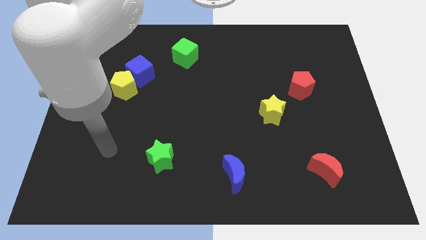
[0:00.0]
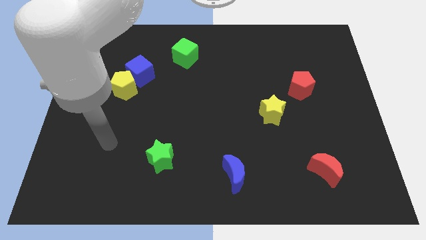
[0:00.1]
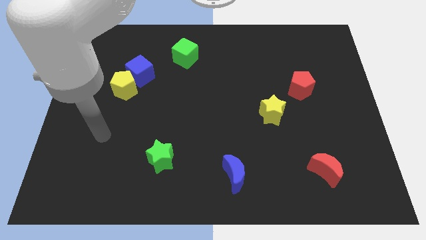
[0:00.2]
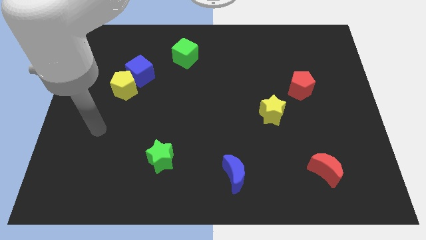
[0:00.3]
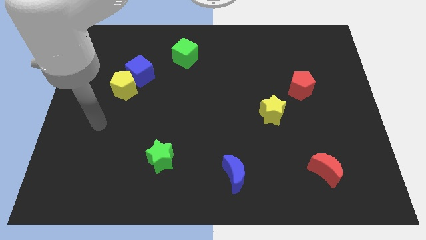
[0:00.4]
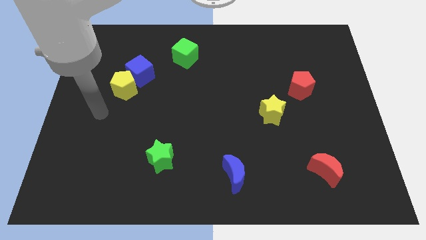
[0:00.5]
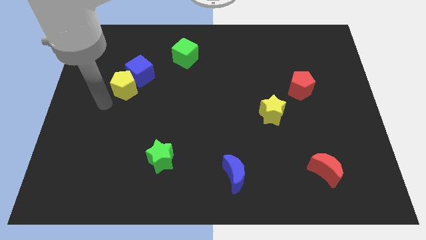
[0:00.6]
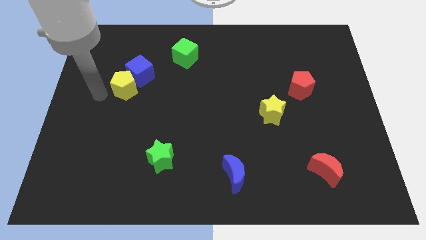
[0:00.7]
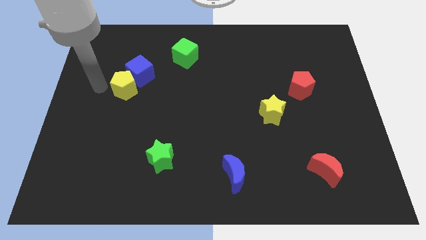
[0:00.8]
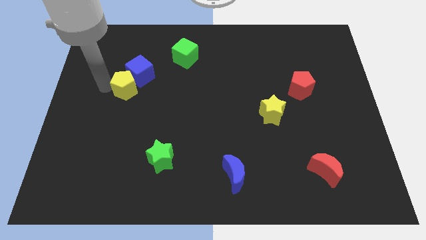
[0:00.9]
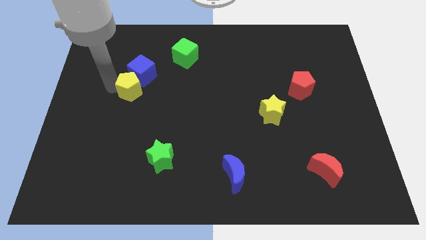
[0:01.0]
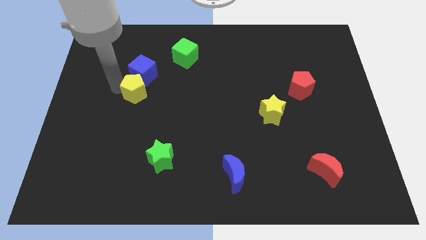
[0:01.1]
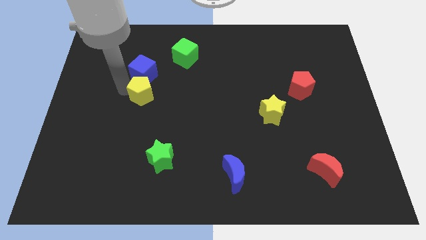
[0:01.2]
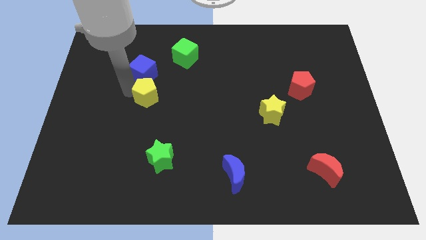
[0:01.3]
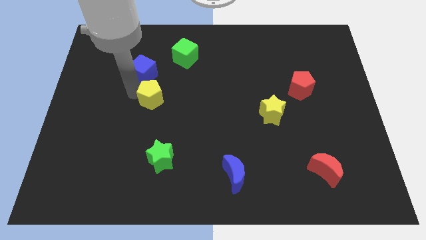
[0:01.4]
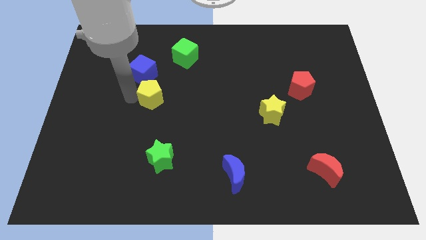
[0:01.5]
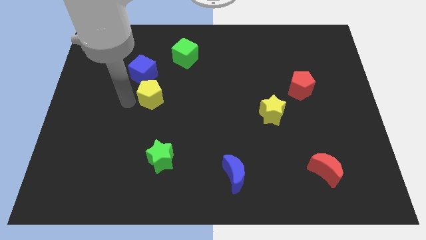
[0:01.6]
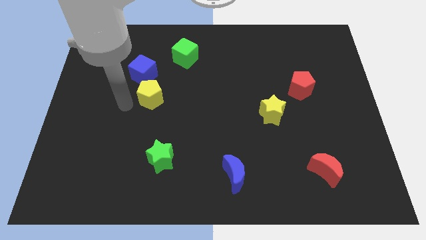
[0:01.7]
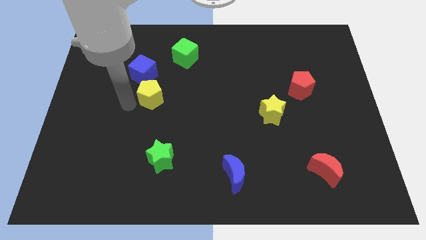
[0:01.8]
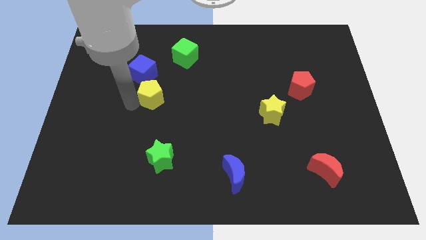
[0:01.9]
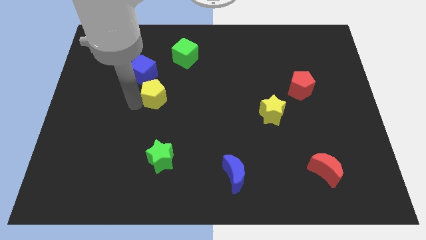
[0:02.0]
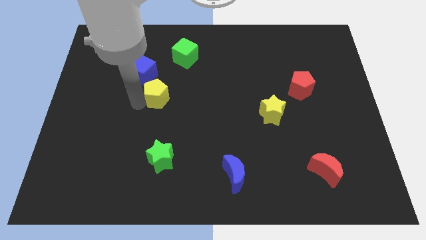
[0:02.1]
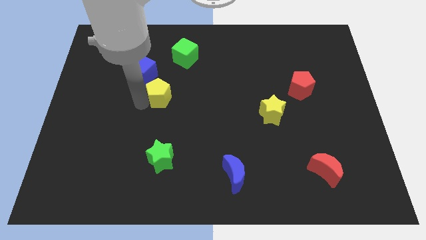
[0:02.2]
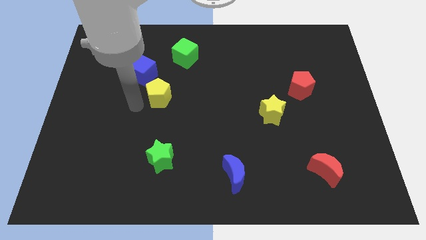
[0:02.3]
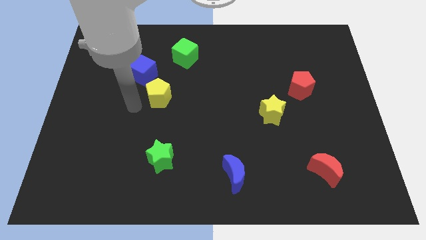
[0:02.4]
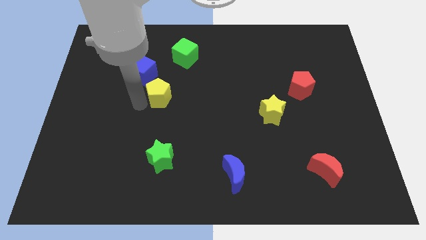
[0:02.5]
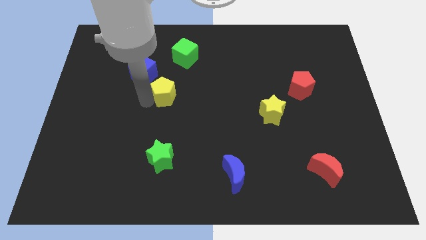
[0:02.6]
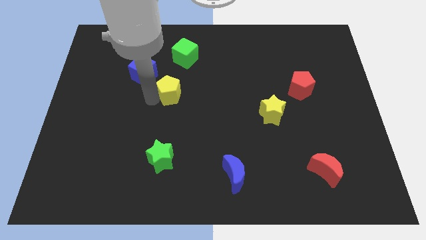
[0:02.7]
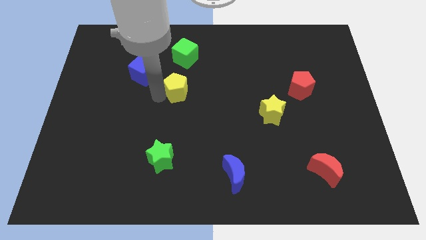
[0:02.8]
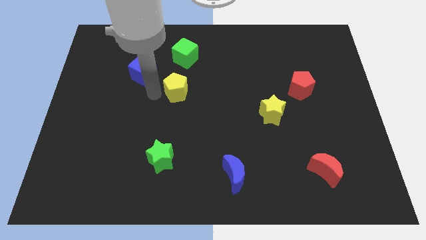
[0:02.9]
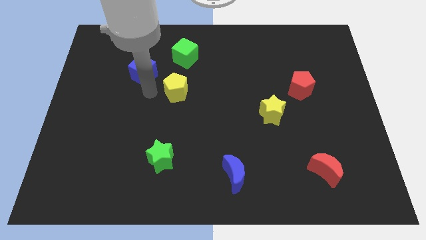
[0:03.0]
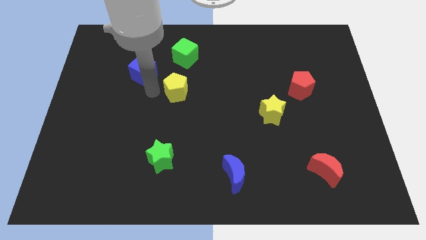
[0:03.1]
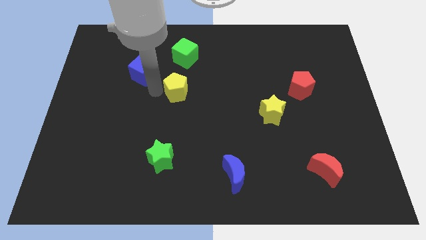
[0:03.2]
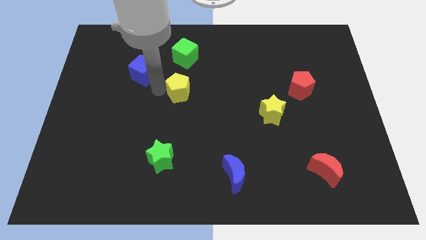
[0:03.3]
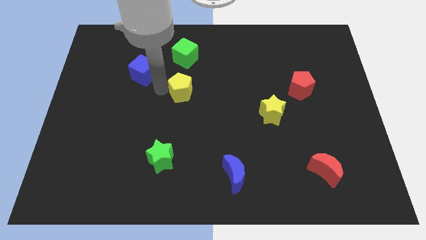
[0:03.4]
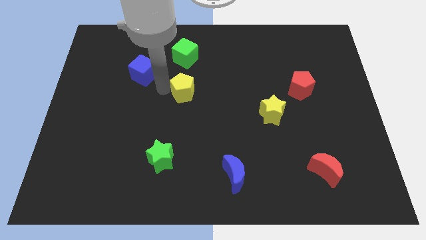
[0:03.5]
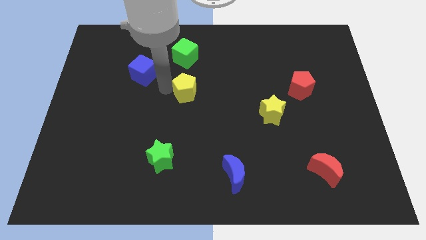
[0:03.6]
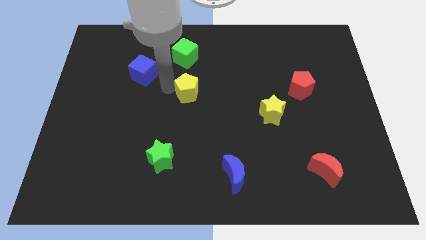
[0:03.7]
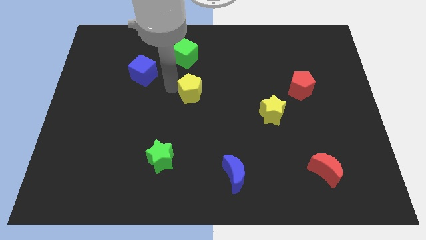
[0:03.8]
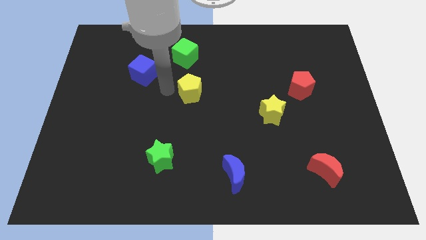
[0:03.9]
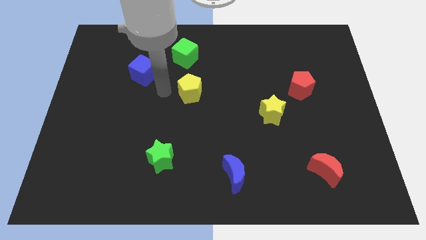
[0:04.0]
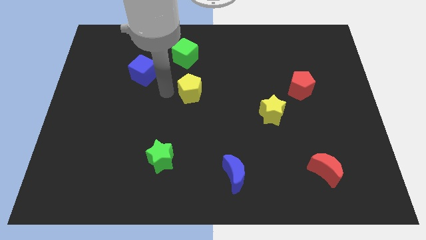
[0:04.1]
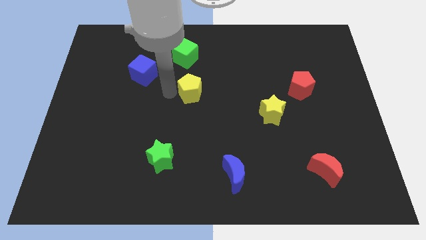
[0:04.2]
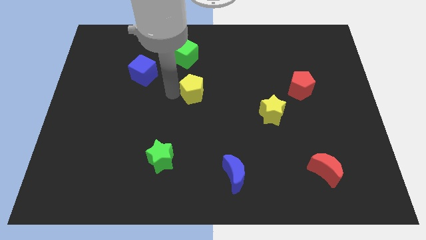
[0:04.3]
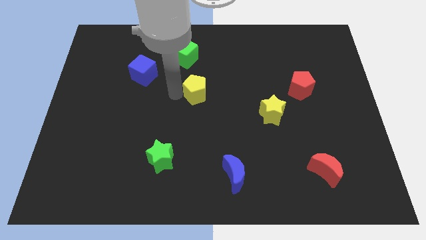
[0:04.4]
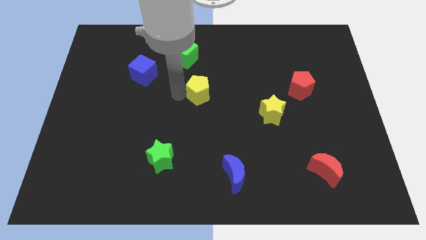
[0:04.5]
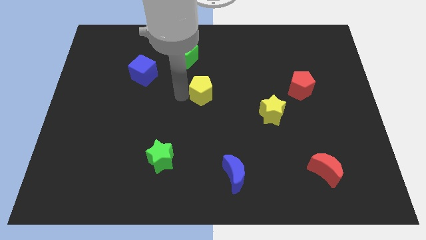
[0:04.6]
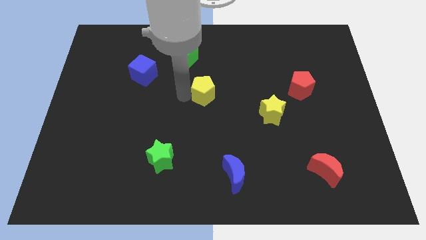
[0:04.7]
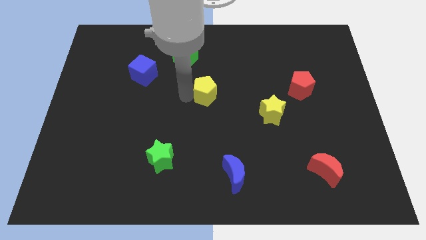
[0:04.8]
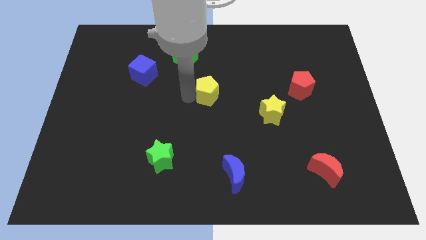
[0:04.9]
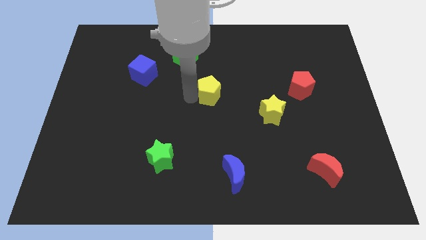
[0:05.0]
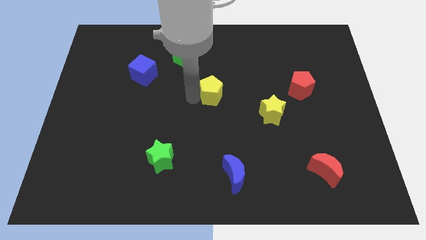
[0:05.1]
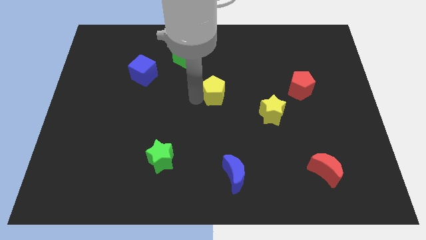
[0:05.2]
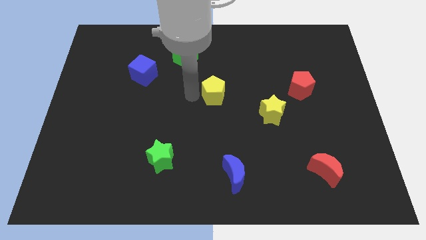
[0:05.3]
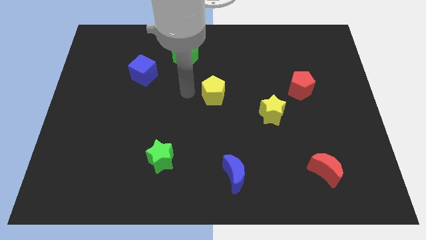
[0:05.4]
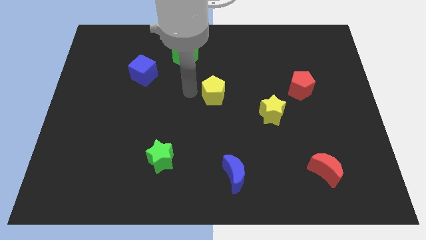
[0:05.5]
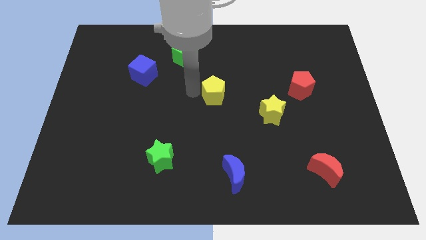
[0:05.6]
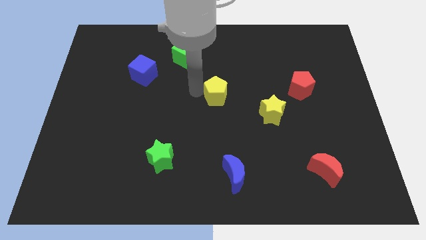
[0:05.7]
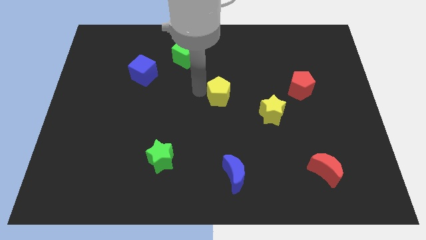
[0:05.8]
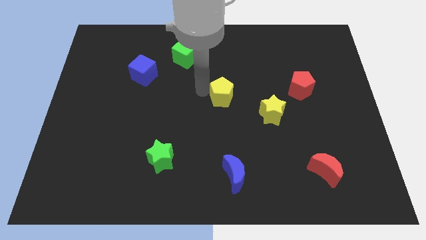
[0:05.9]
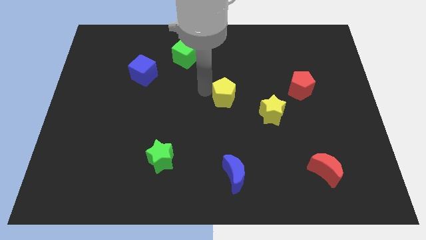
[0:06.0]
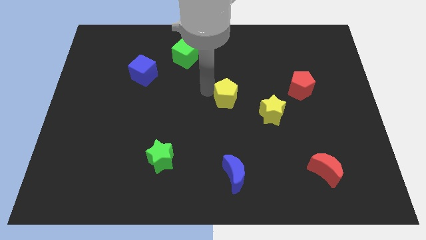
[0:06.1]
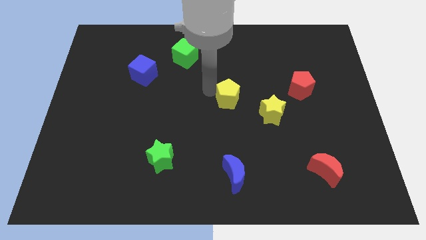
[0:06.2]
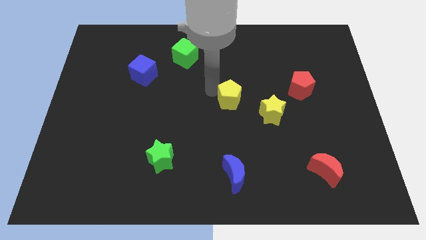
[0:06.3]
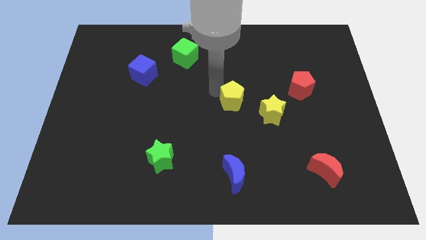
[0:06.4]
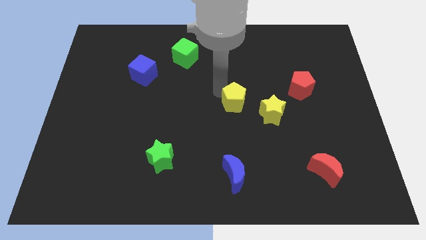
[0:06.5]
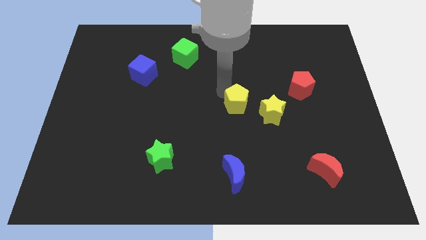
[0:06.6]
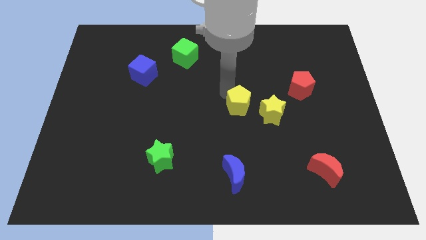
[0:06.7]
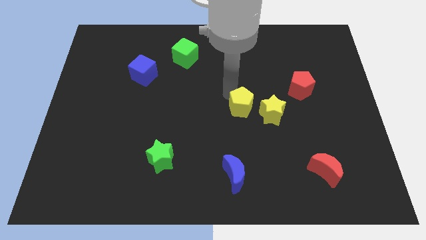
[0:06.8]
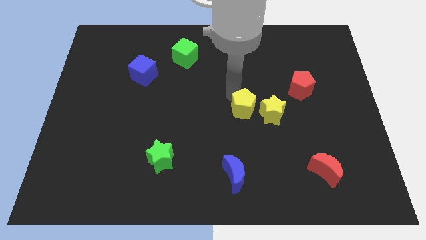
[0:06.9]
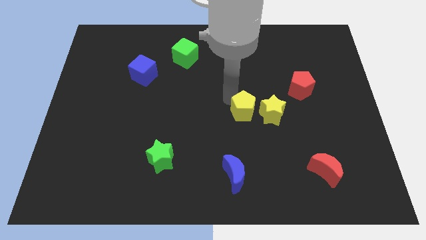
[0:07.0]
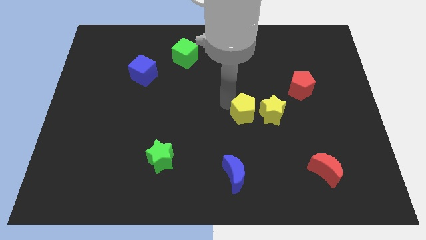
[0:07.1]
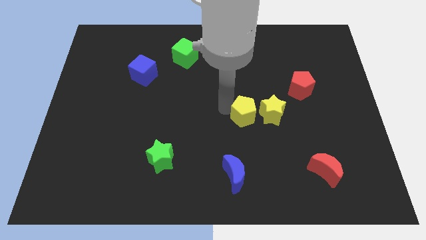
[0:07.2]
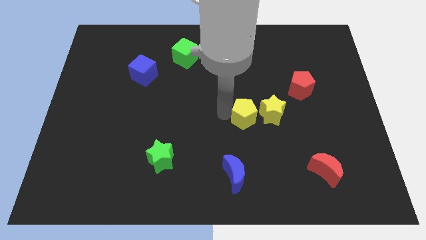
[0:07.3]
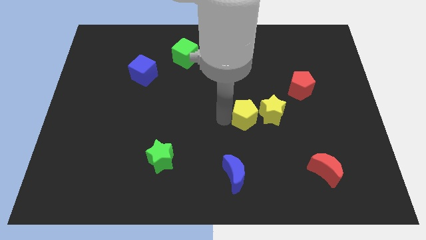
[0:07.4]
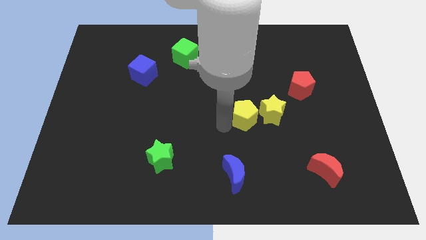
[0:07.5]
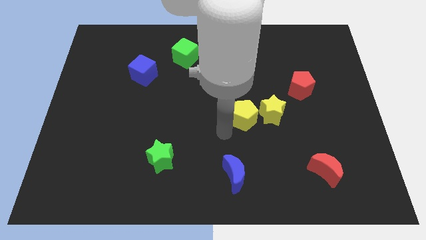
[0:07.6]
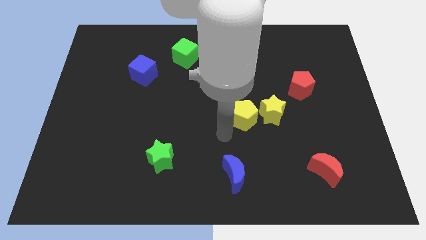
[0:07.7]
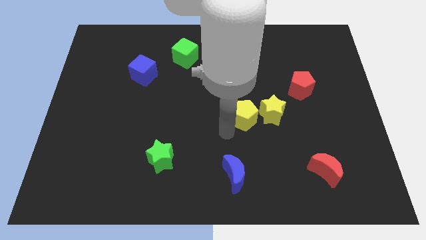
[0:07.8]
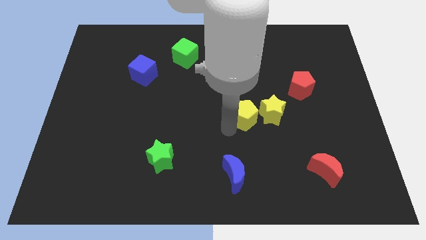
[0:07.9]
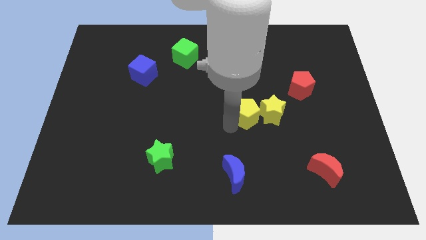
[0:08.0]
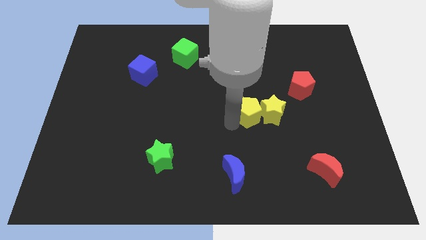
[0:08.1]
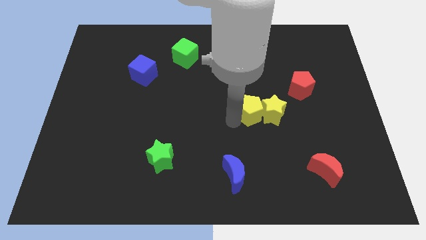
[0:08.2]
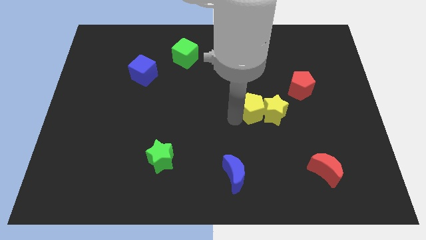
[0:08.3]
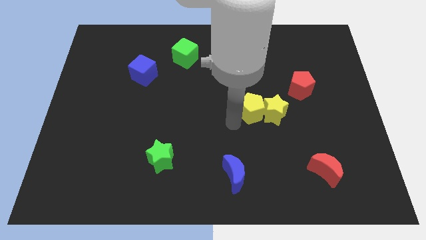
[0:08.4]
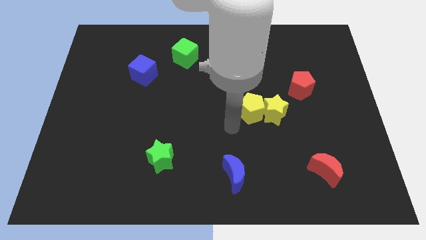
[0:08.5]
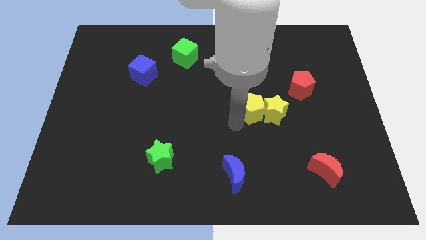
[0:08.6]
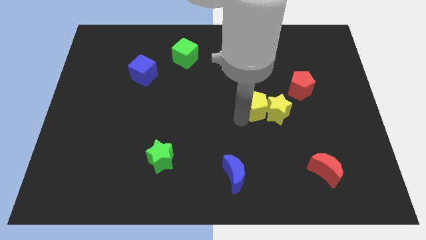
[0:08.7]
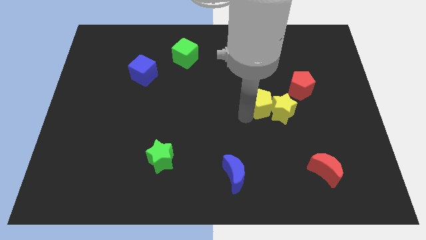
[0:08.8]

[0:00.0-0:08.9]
push the yellow pentagon to the bottom left side of the red pentagon
